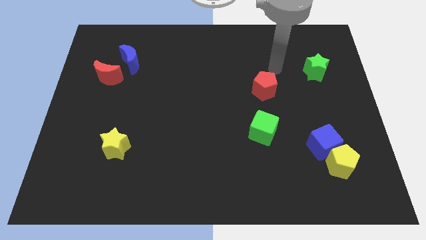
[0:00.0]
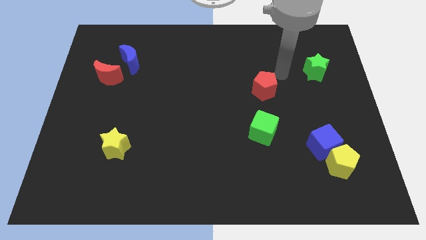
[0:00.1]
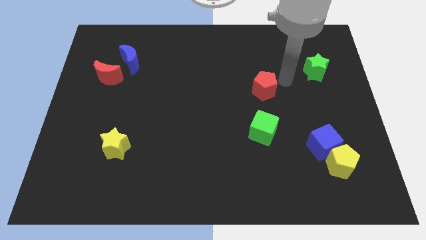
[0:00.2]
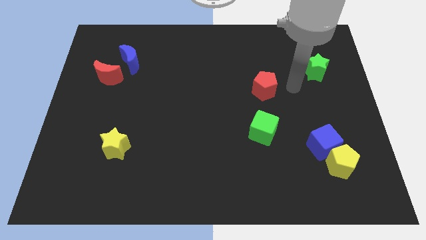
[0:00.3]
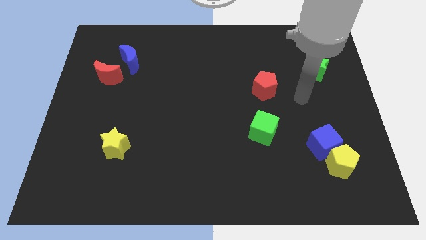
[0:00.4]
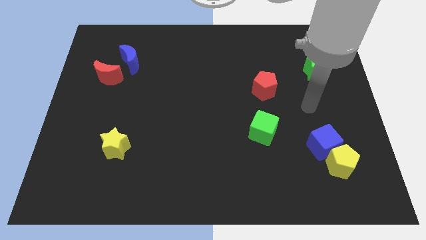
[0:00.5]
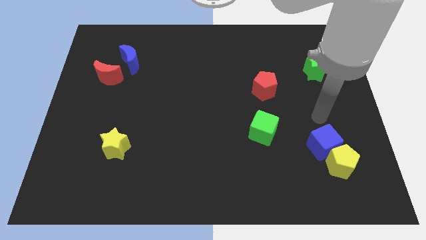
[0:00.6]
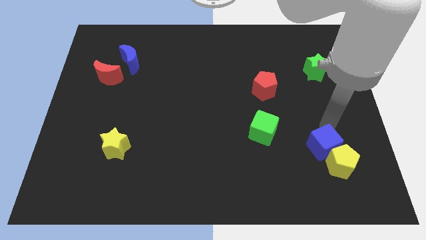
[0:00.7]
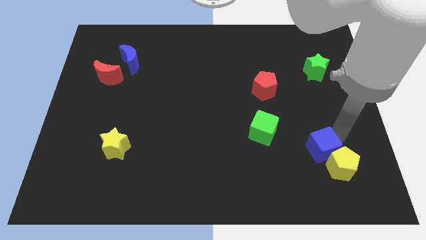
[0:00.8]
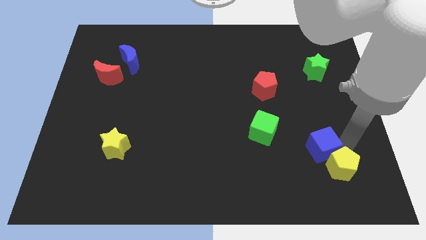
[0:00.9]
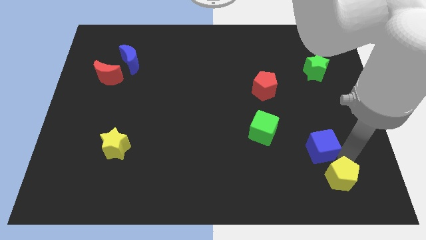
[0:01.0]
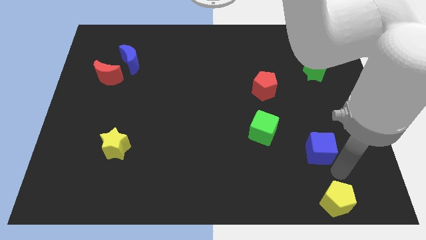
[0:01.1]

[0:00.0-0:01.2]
separate the blue cube from the yellow pentagon

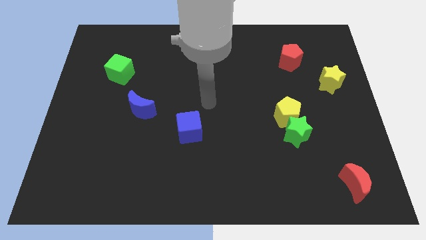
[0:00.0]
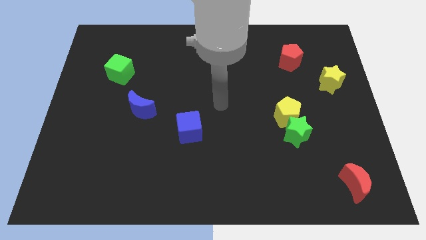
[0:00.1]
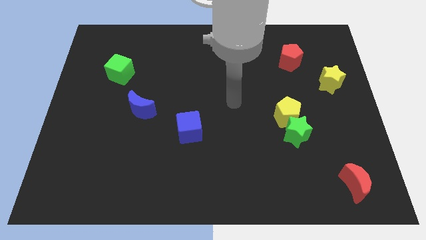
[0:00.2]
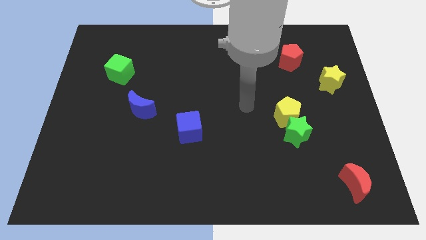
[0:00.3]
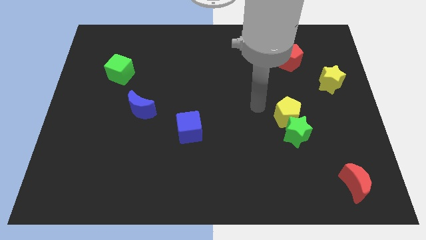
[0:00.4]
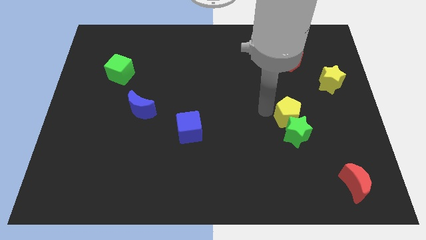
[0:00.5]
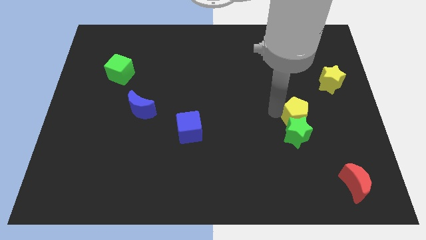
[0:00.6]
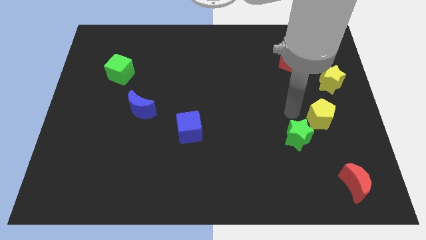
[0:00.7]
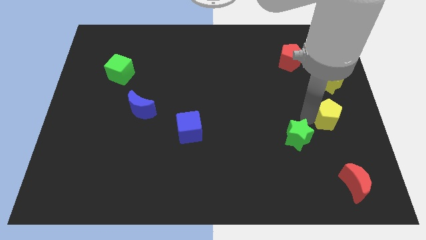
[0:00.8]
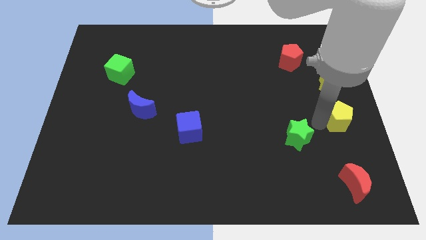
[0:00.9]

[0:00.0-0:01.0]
pull the green star apart from the yellow pentagon

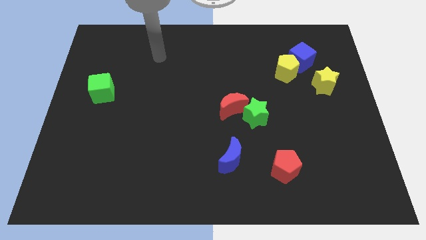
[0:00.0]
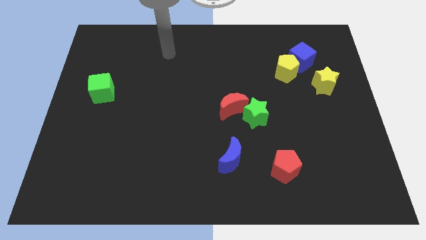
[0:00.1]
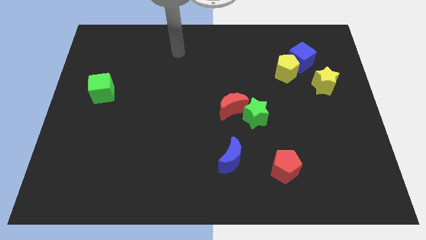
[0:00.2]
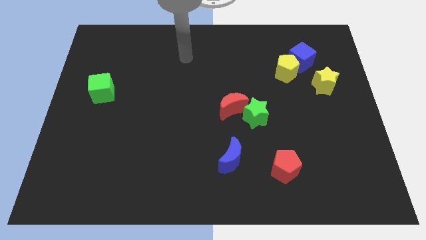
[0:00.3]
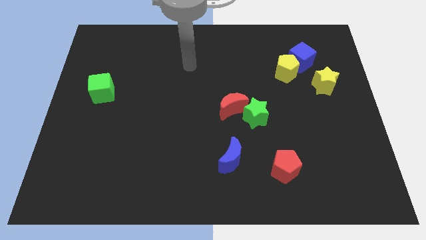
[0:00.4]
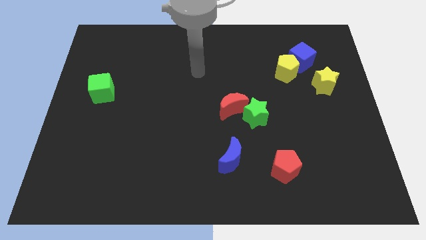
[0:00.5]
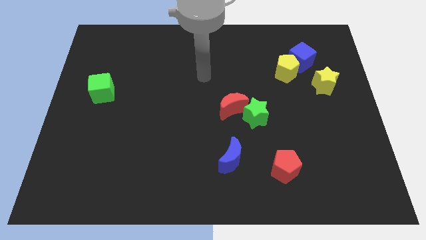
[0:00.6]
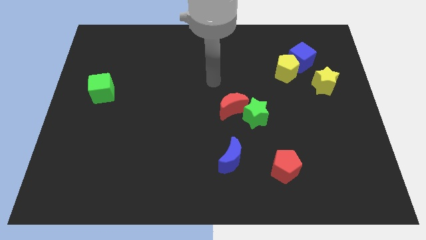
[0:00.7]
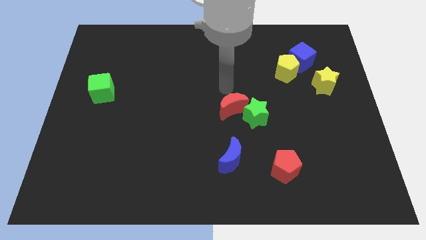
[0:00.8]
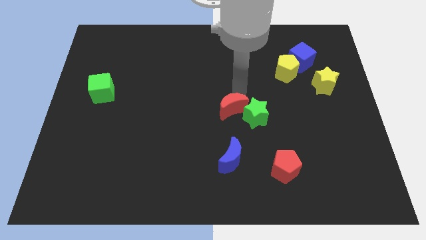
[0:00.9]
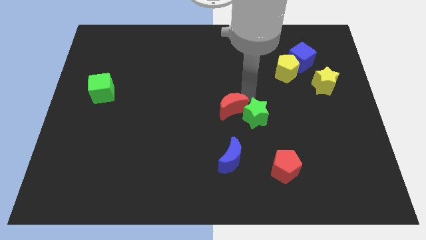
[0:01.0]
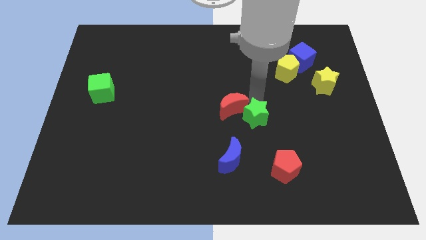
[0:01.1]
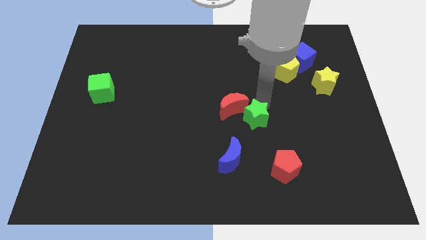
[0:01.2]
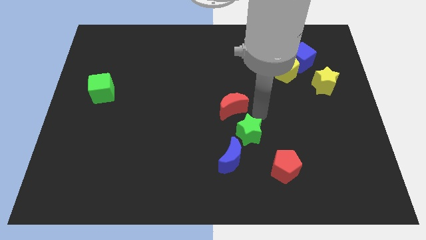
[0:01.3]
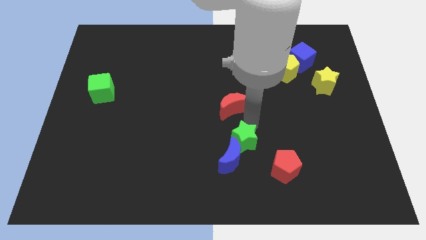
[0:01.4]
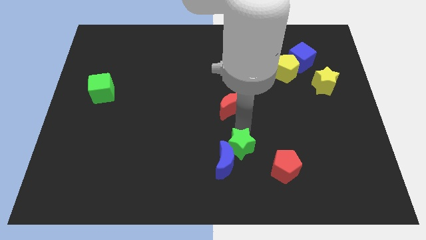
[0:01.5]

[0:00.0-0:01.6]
pull the red moon apart from the green star

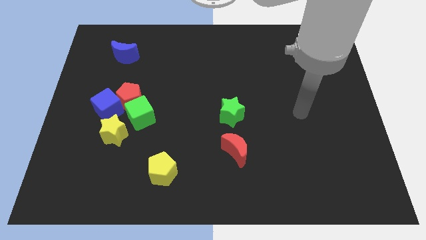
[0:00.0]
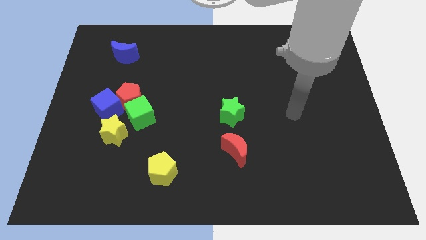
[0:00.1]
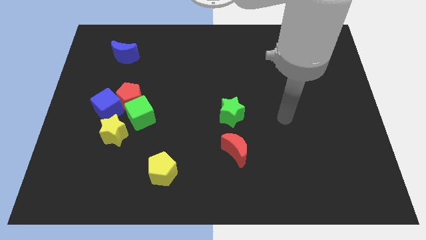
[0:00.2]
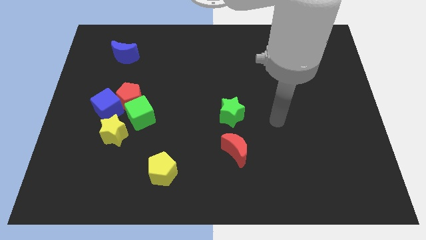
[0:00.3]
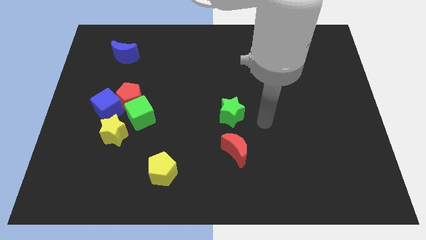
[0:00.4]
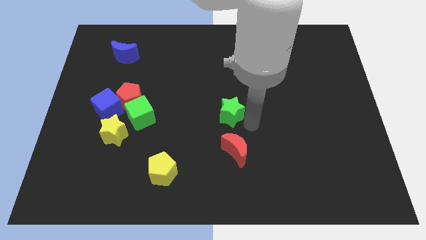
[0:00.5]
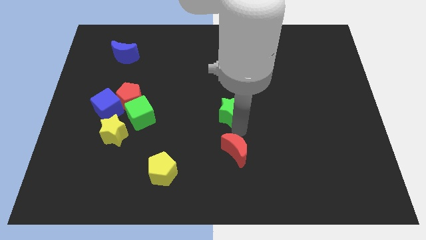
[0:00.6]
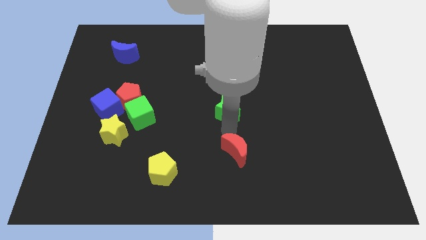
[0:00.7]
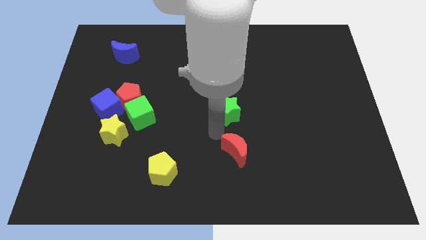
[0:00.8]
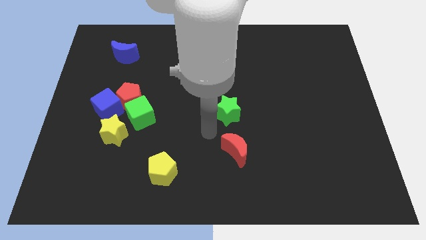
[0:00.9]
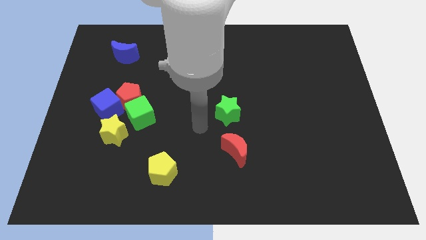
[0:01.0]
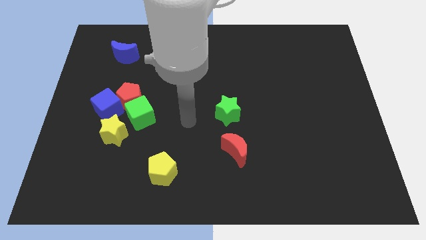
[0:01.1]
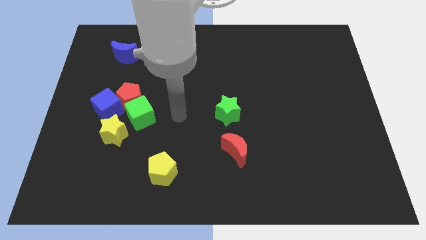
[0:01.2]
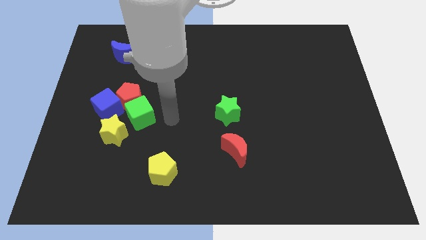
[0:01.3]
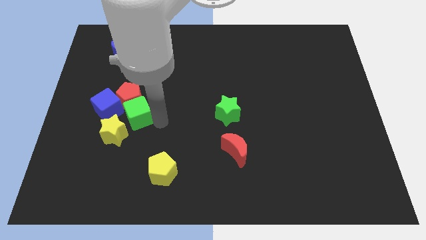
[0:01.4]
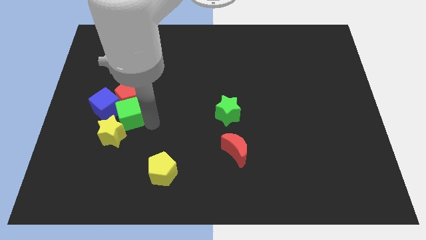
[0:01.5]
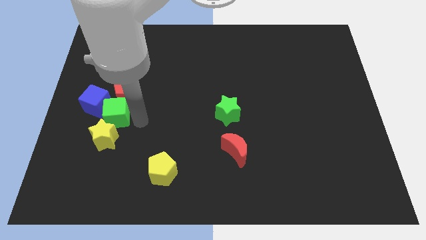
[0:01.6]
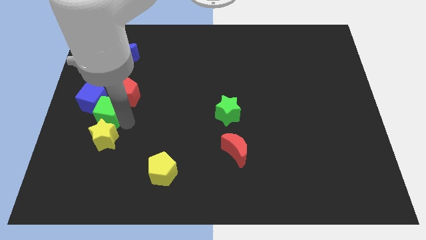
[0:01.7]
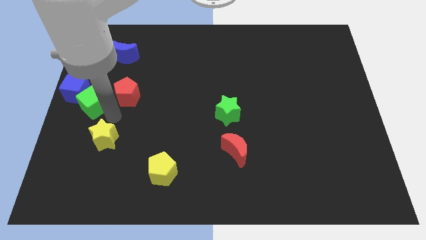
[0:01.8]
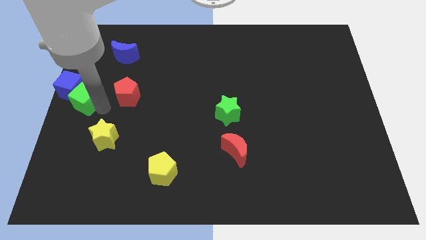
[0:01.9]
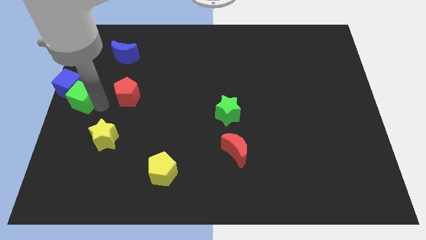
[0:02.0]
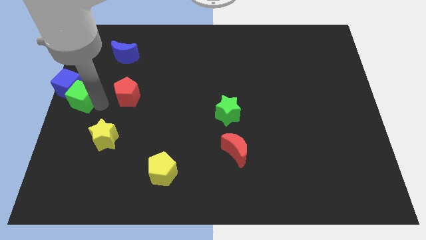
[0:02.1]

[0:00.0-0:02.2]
pull the red pentagon apart from the clump

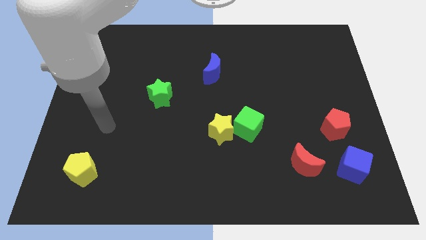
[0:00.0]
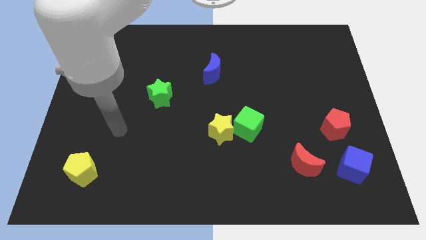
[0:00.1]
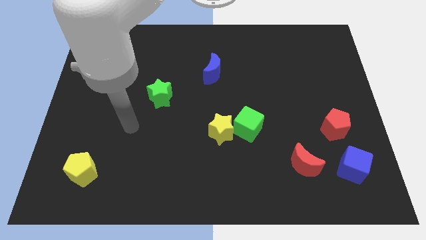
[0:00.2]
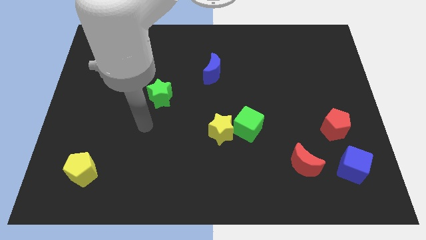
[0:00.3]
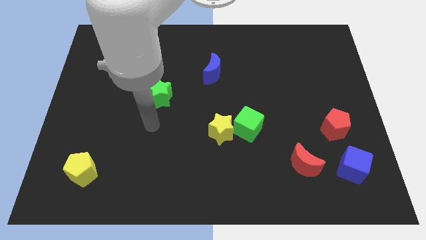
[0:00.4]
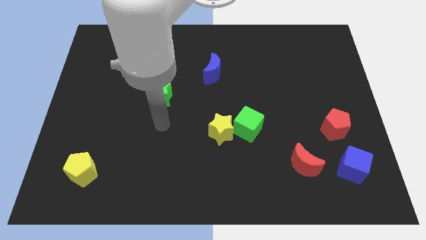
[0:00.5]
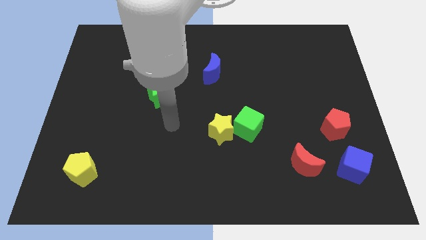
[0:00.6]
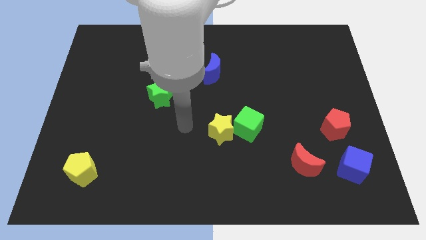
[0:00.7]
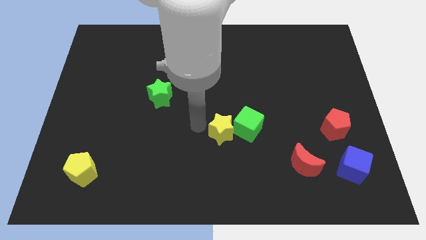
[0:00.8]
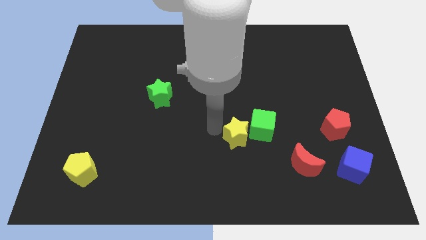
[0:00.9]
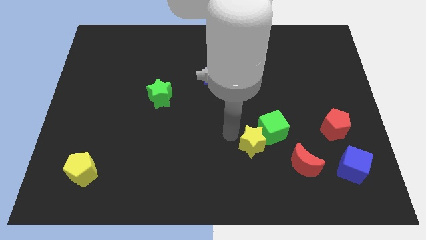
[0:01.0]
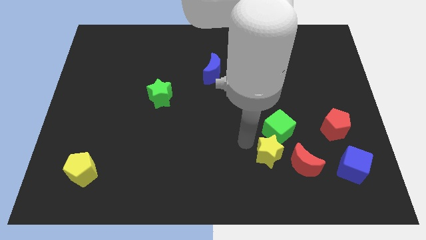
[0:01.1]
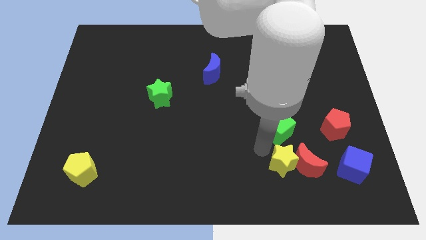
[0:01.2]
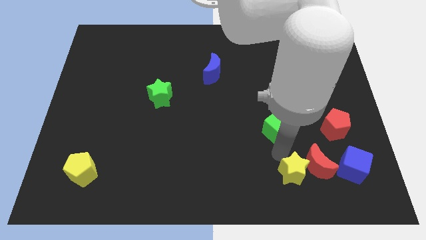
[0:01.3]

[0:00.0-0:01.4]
separate the green cube from the yellow star

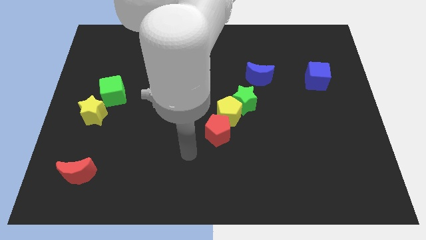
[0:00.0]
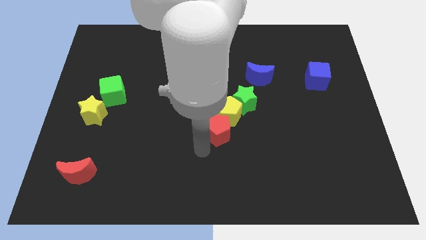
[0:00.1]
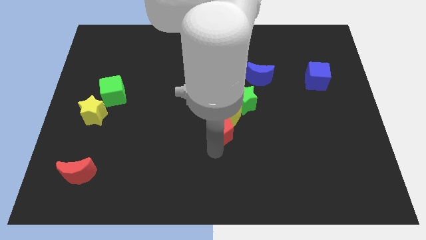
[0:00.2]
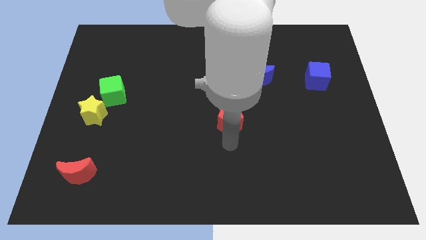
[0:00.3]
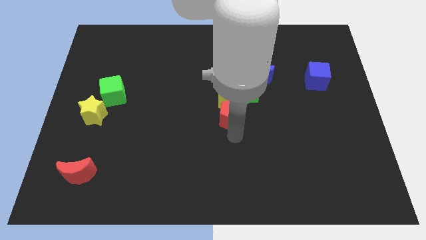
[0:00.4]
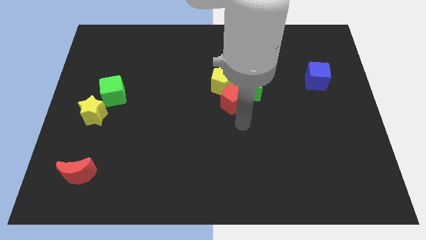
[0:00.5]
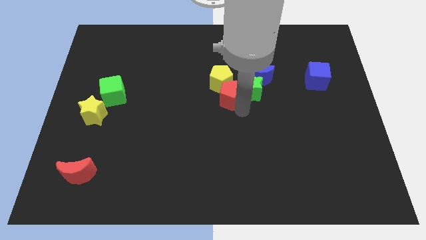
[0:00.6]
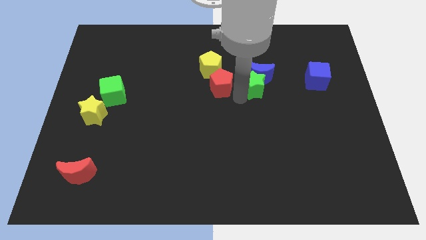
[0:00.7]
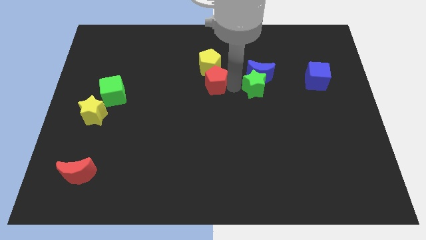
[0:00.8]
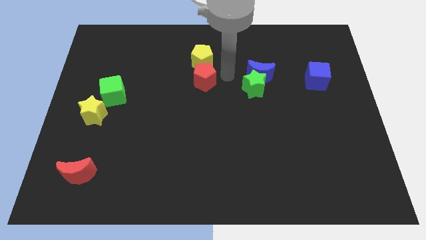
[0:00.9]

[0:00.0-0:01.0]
pull the yellow pentagon apart from the green star and red pentagon

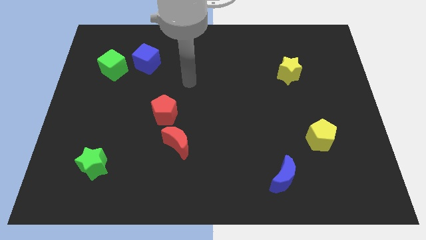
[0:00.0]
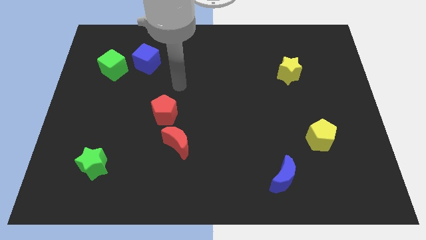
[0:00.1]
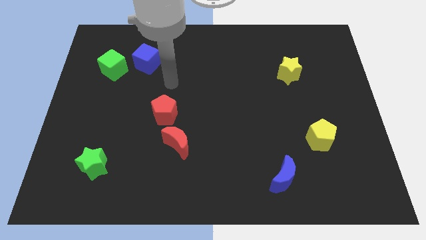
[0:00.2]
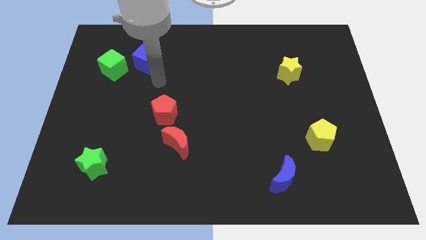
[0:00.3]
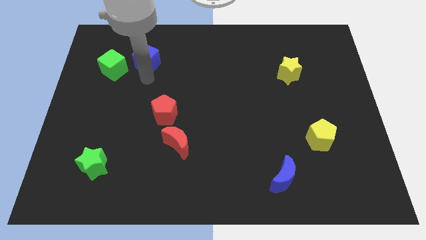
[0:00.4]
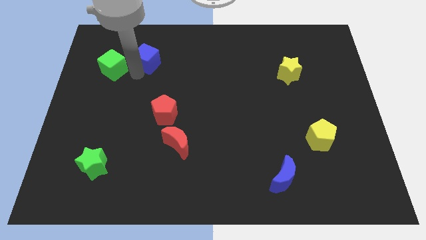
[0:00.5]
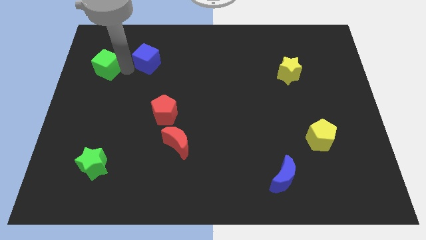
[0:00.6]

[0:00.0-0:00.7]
move the blue cube away from the green cube

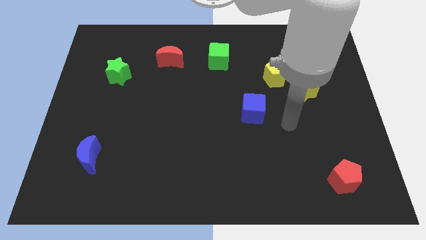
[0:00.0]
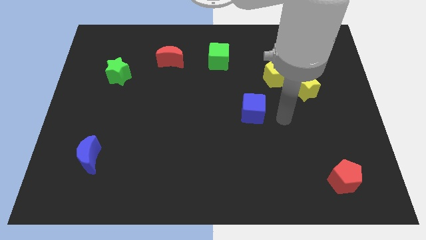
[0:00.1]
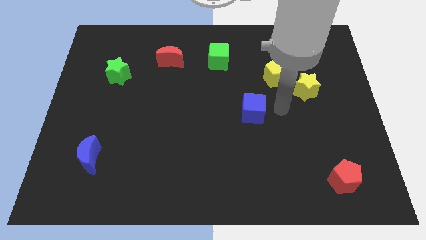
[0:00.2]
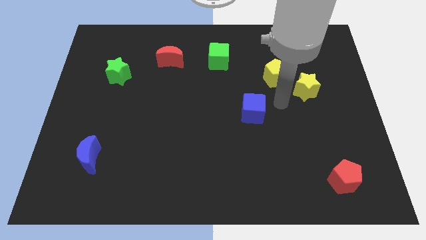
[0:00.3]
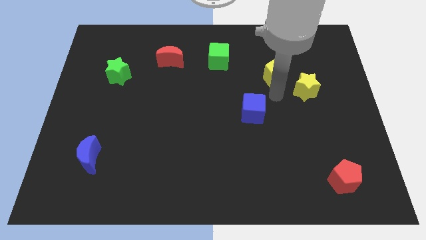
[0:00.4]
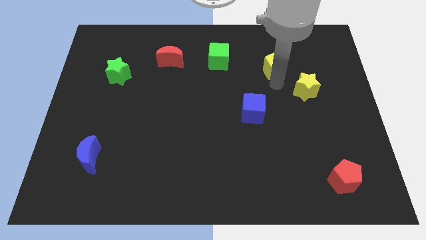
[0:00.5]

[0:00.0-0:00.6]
pull the yellow star apart from the yellow pentagon
